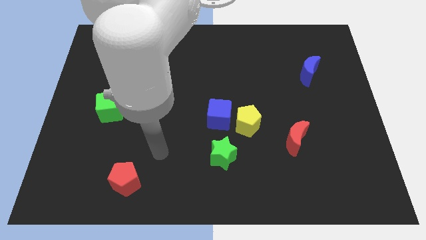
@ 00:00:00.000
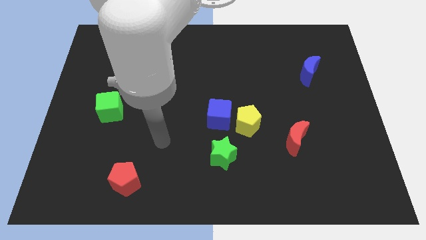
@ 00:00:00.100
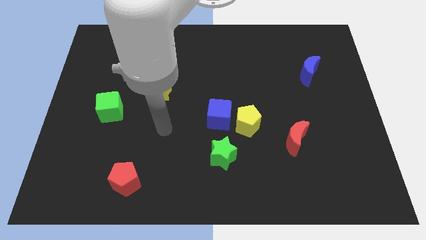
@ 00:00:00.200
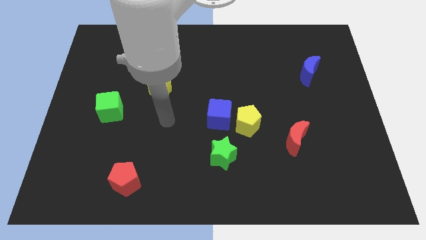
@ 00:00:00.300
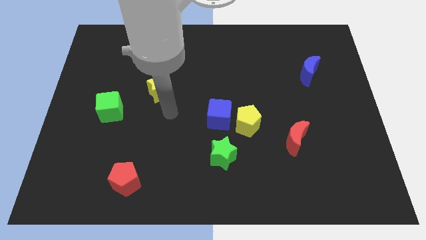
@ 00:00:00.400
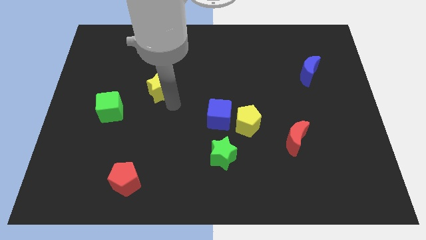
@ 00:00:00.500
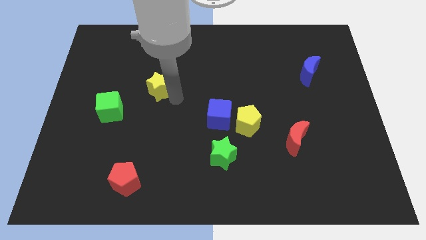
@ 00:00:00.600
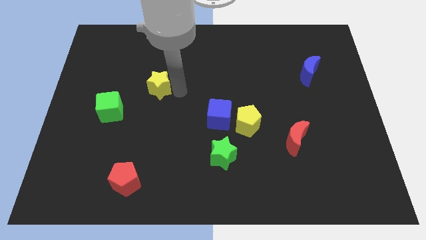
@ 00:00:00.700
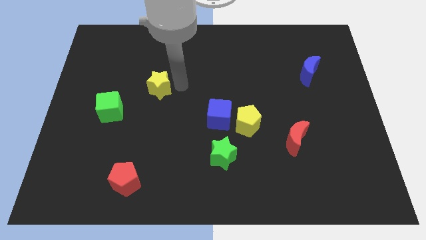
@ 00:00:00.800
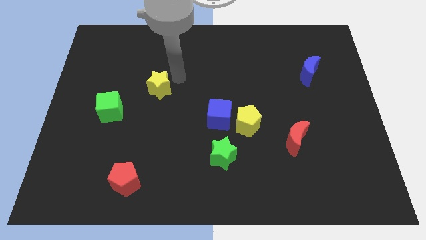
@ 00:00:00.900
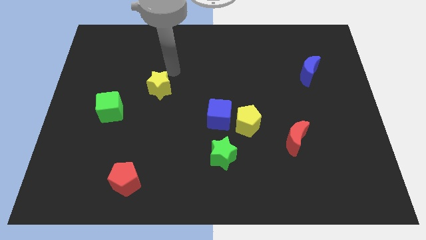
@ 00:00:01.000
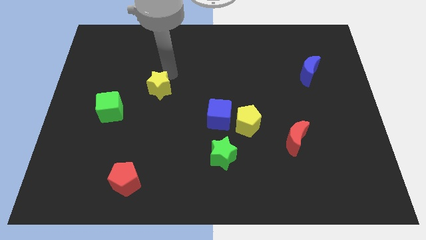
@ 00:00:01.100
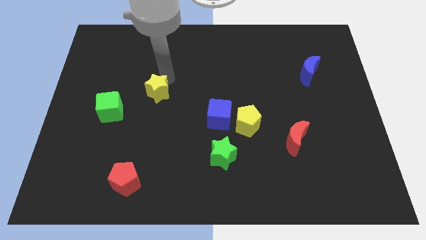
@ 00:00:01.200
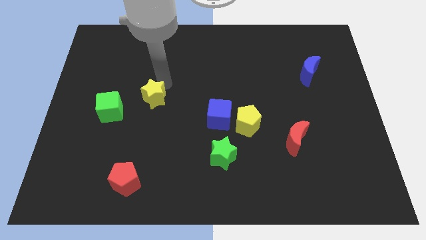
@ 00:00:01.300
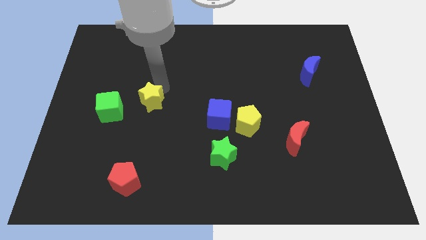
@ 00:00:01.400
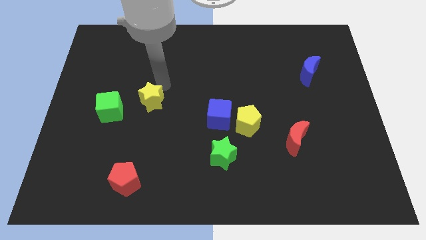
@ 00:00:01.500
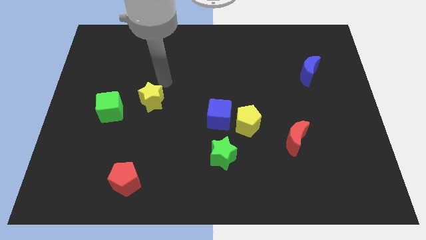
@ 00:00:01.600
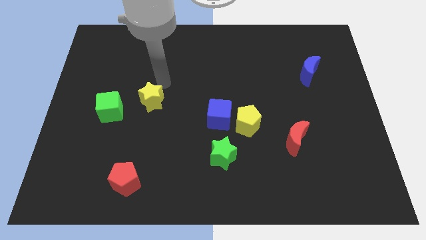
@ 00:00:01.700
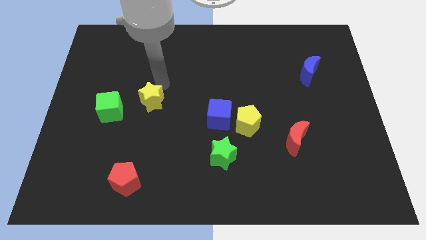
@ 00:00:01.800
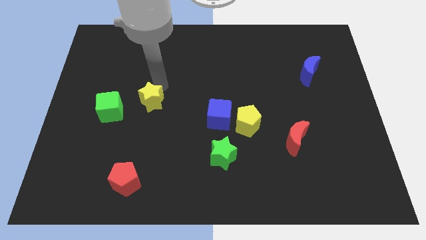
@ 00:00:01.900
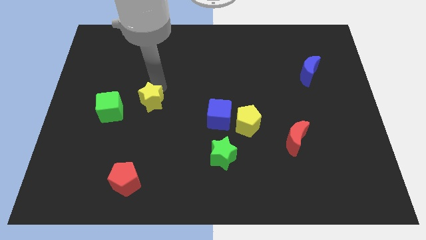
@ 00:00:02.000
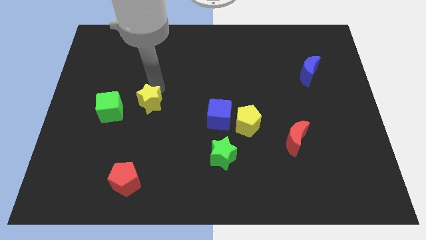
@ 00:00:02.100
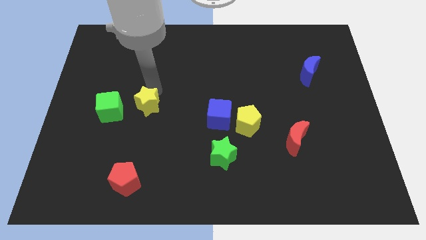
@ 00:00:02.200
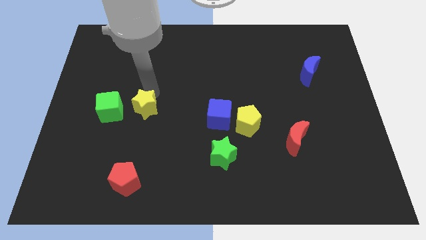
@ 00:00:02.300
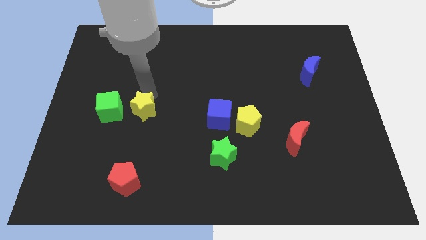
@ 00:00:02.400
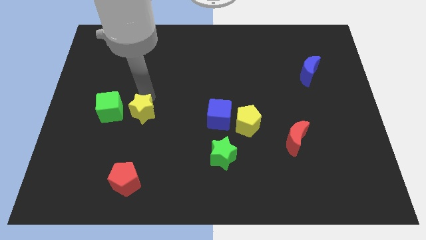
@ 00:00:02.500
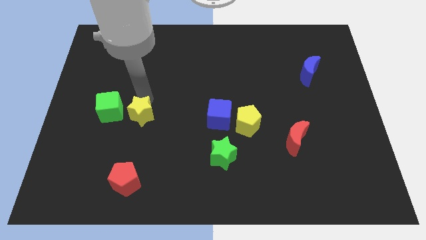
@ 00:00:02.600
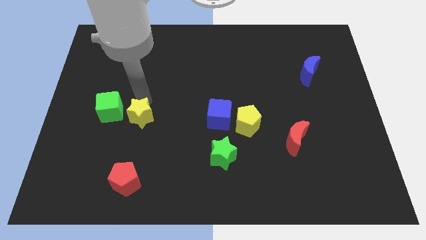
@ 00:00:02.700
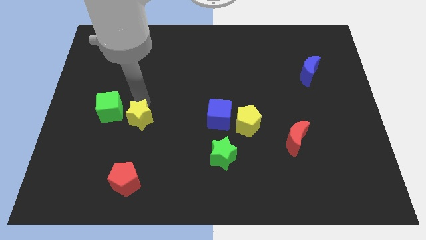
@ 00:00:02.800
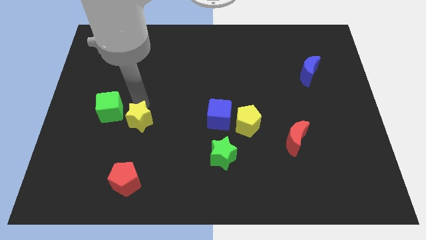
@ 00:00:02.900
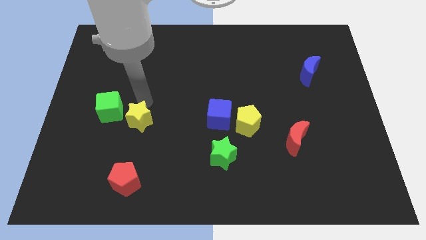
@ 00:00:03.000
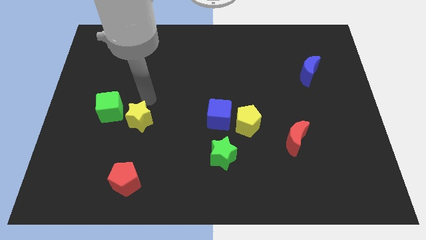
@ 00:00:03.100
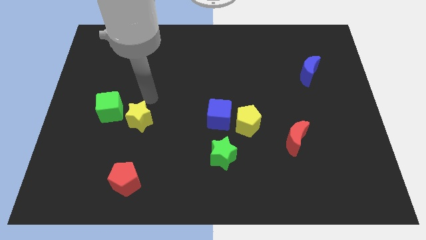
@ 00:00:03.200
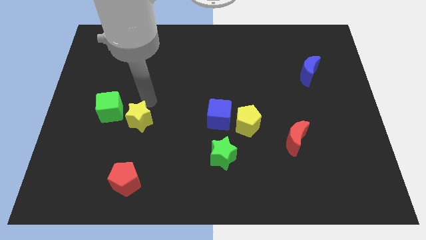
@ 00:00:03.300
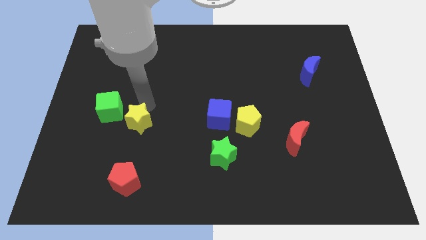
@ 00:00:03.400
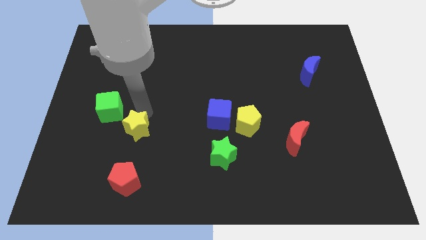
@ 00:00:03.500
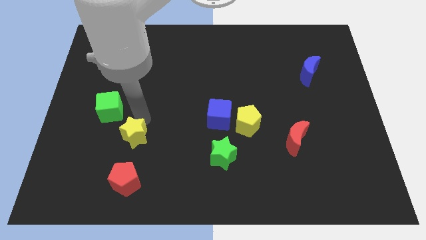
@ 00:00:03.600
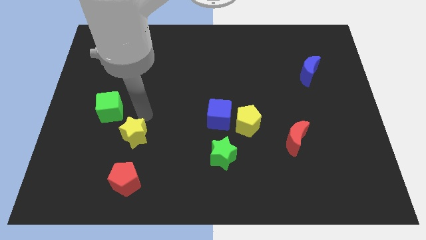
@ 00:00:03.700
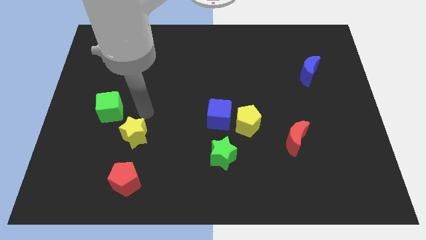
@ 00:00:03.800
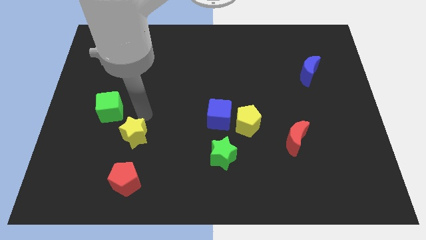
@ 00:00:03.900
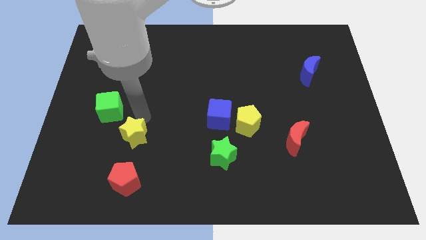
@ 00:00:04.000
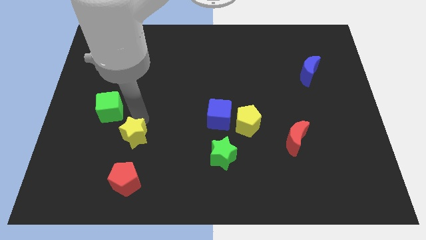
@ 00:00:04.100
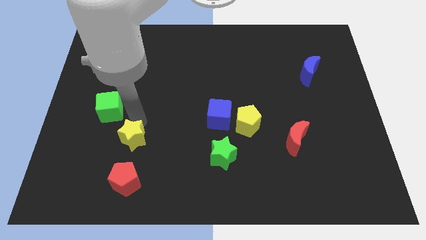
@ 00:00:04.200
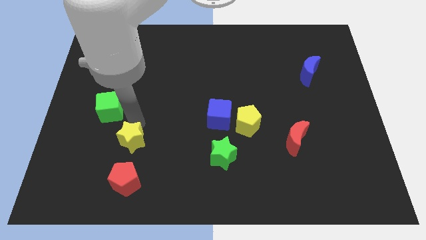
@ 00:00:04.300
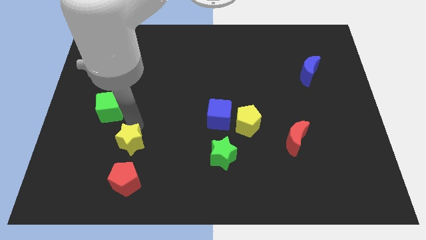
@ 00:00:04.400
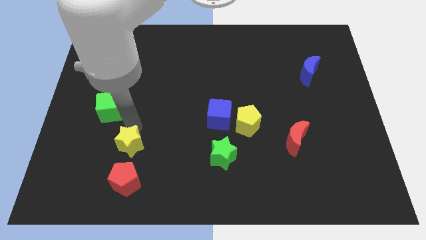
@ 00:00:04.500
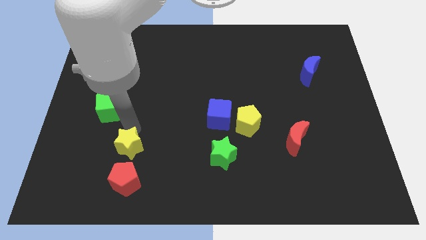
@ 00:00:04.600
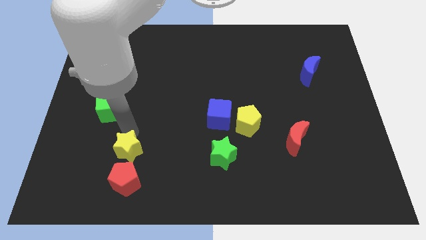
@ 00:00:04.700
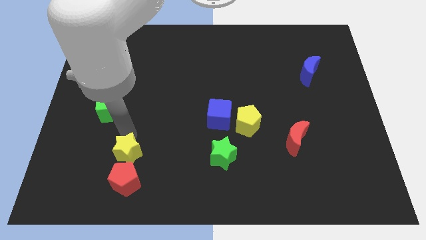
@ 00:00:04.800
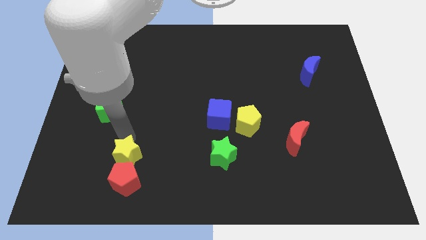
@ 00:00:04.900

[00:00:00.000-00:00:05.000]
slide the yellow star towards the red pentagon

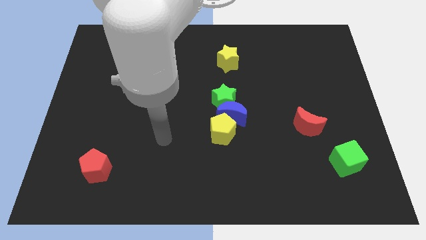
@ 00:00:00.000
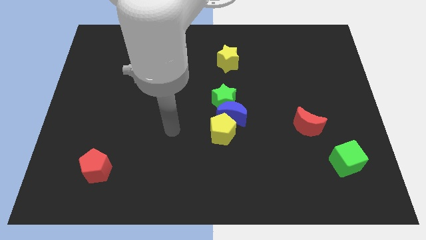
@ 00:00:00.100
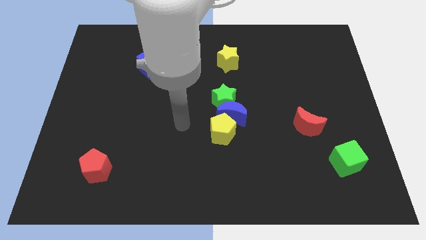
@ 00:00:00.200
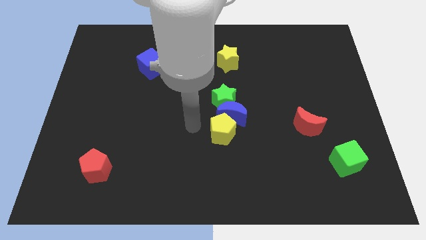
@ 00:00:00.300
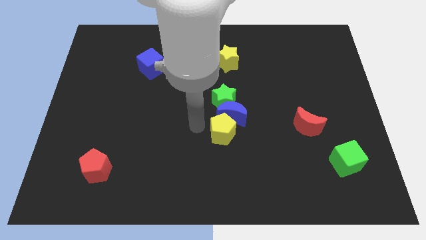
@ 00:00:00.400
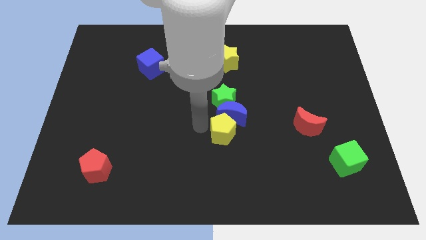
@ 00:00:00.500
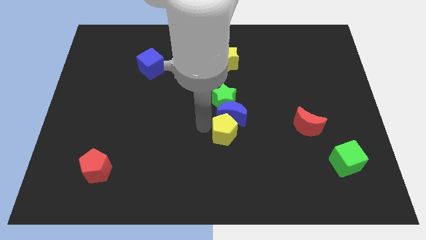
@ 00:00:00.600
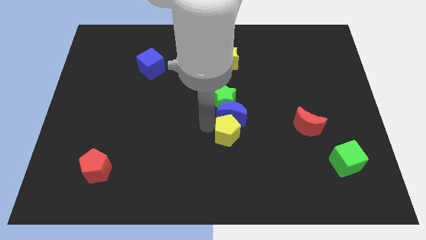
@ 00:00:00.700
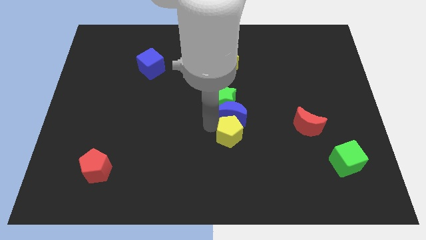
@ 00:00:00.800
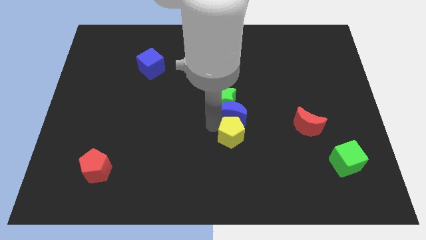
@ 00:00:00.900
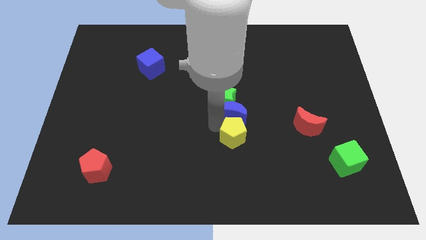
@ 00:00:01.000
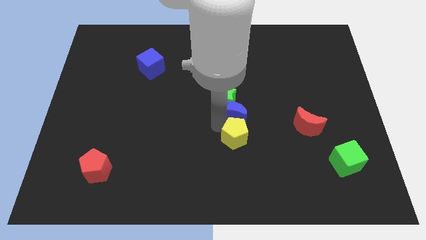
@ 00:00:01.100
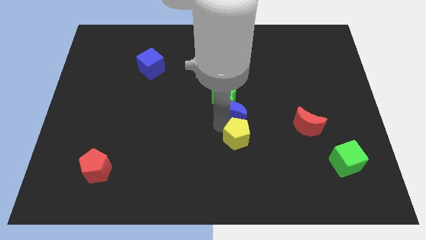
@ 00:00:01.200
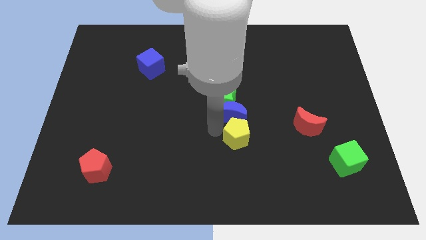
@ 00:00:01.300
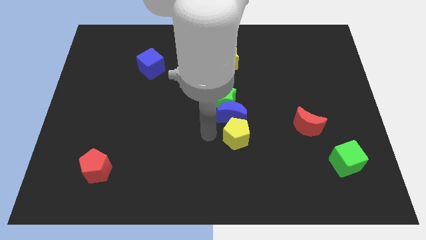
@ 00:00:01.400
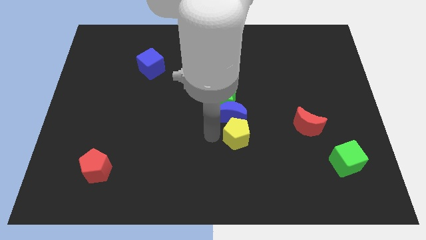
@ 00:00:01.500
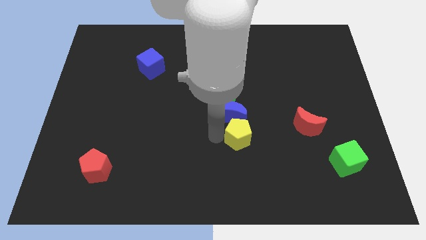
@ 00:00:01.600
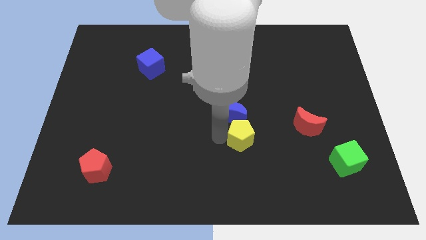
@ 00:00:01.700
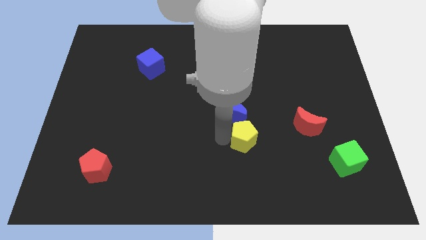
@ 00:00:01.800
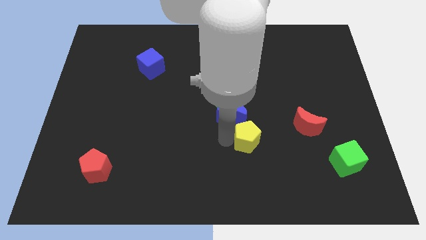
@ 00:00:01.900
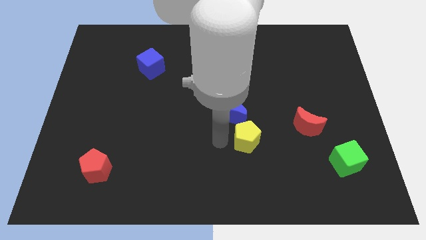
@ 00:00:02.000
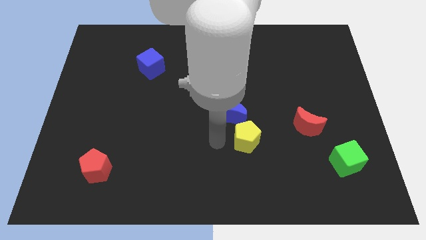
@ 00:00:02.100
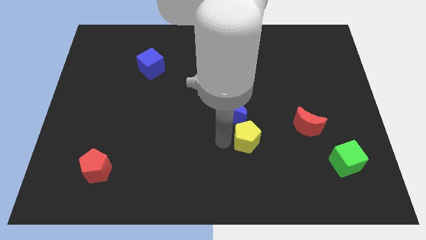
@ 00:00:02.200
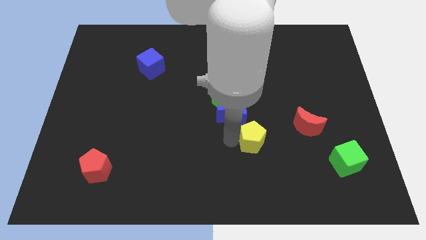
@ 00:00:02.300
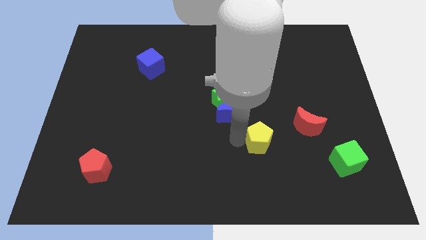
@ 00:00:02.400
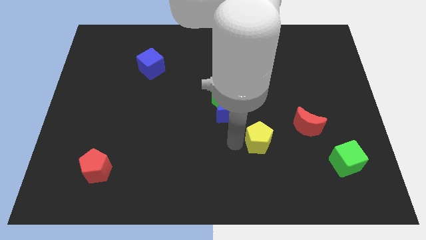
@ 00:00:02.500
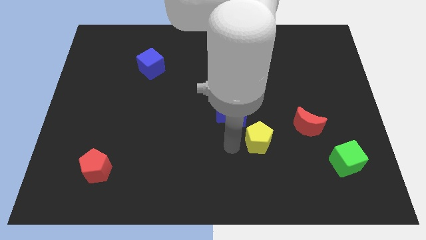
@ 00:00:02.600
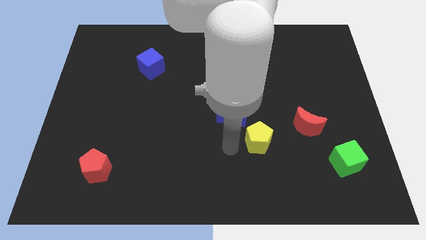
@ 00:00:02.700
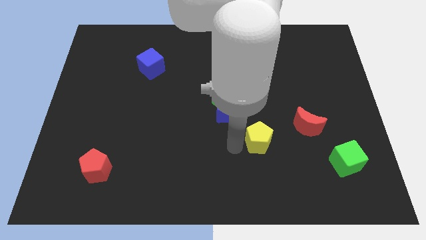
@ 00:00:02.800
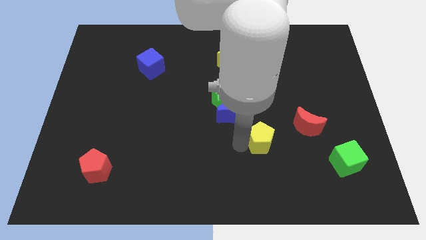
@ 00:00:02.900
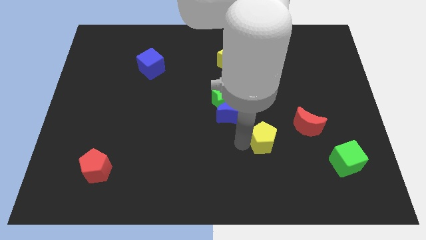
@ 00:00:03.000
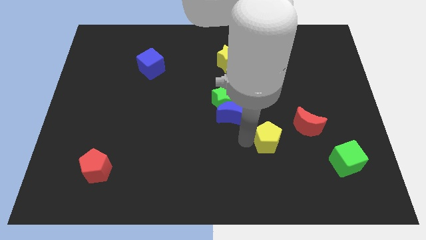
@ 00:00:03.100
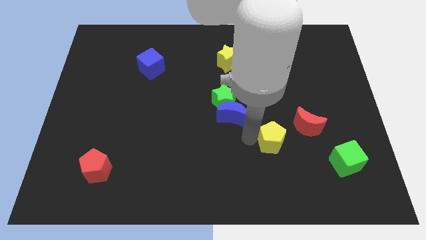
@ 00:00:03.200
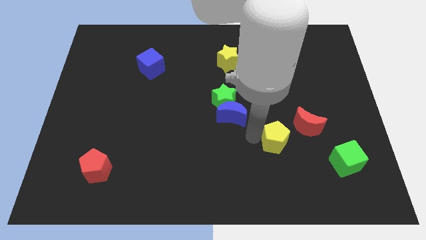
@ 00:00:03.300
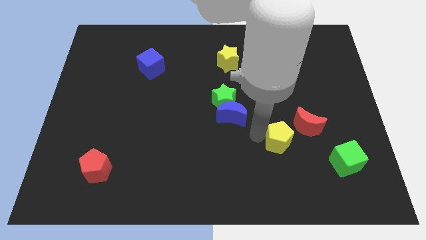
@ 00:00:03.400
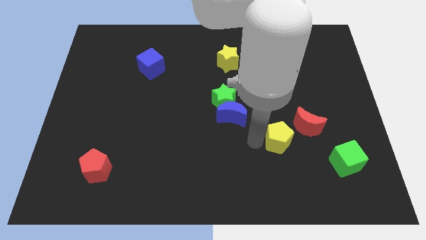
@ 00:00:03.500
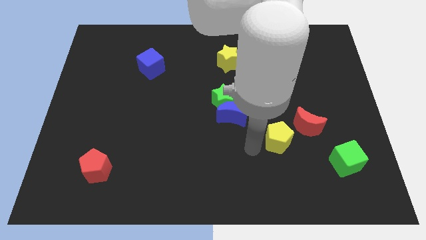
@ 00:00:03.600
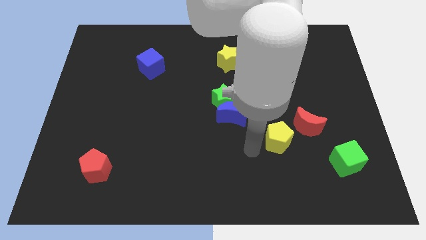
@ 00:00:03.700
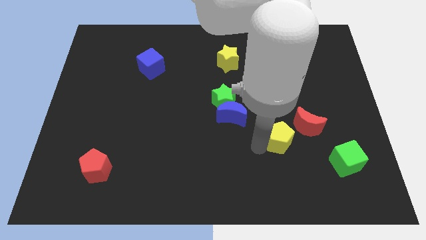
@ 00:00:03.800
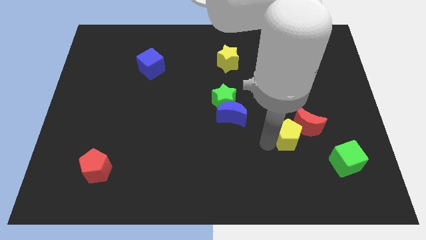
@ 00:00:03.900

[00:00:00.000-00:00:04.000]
push the yellow pentagon close to the red moon
